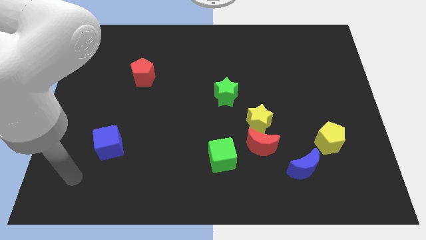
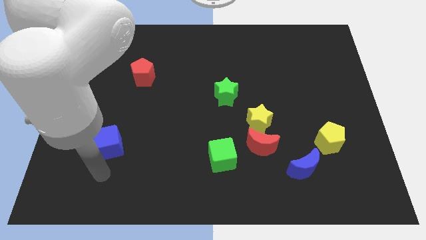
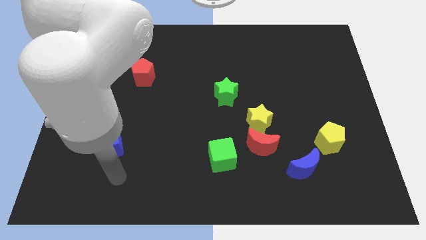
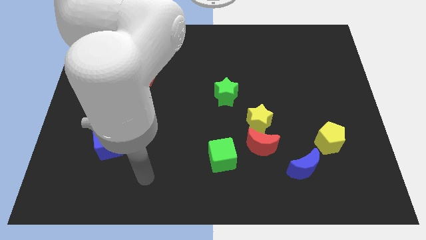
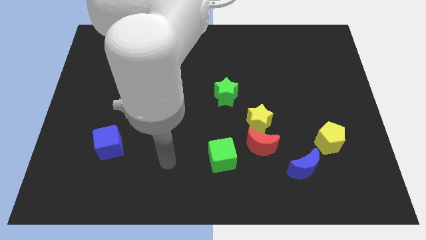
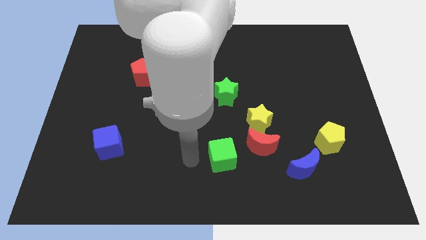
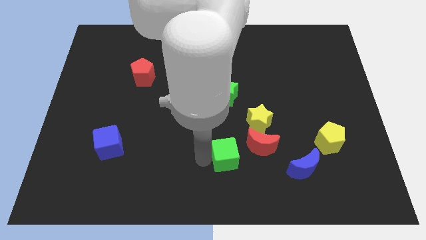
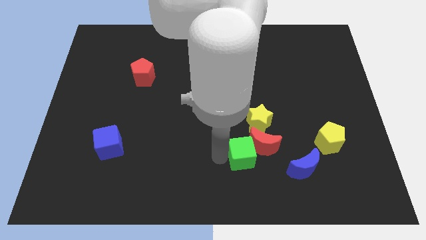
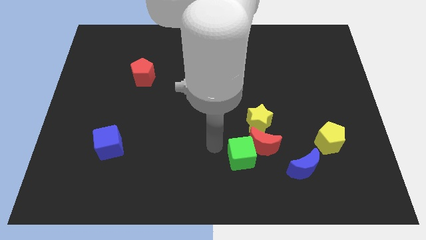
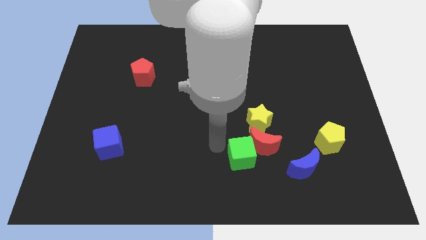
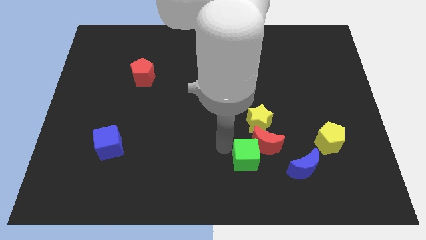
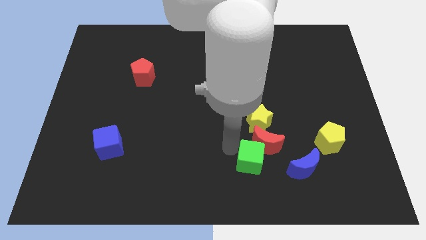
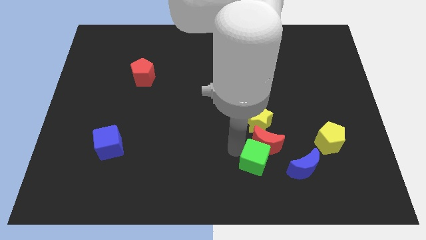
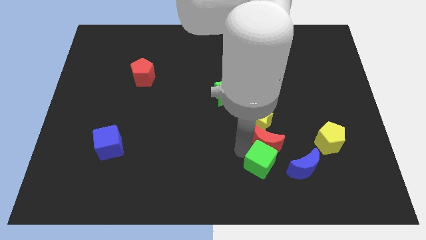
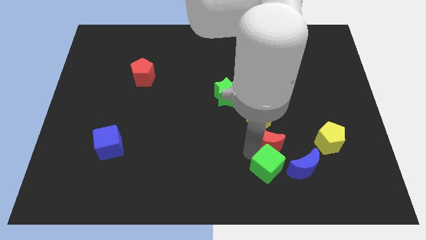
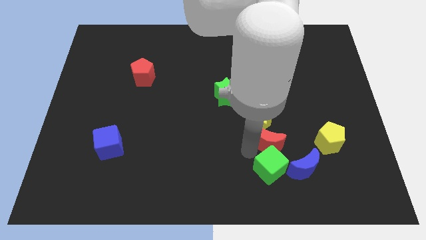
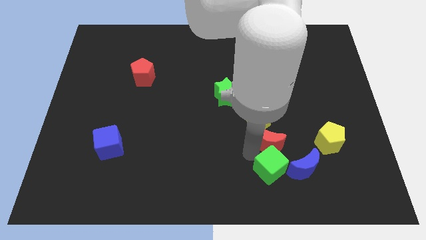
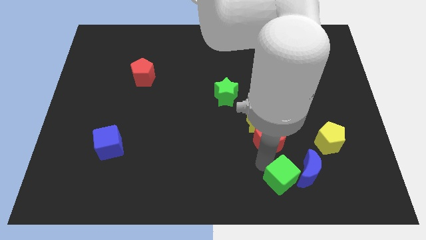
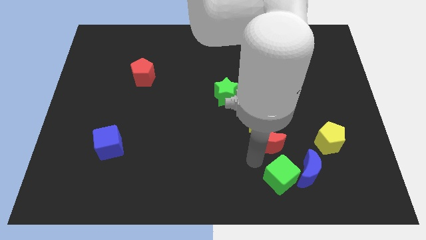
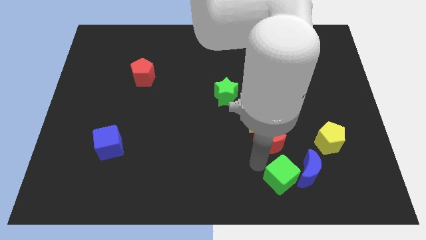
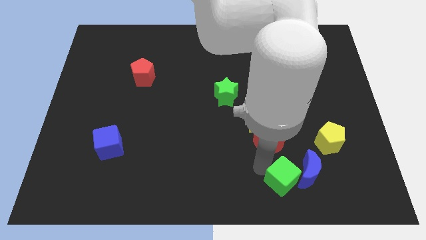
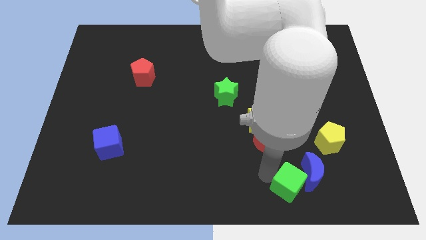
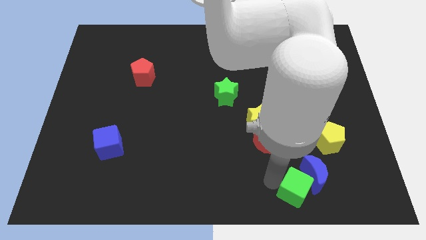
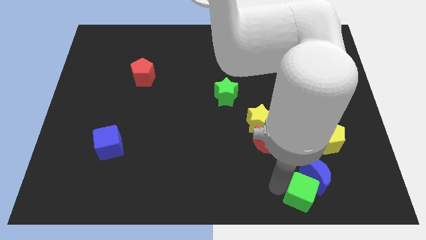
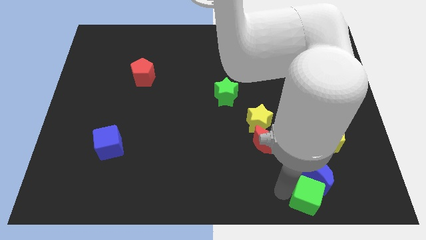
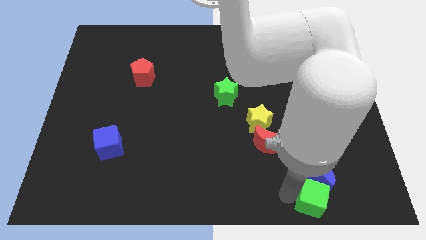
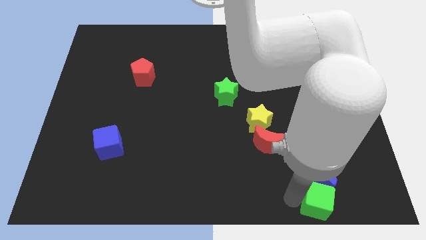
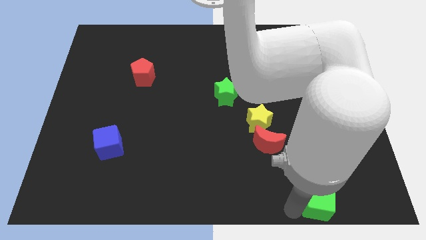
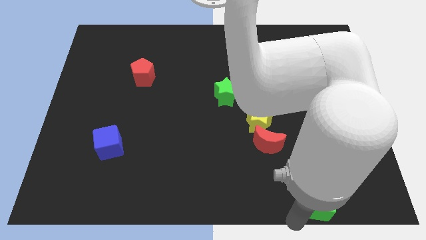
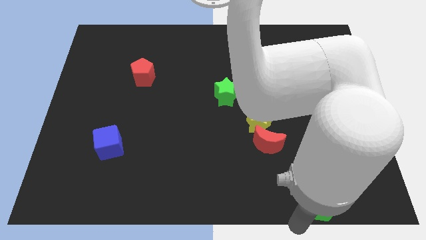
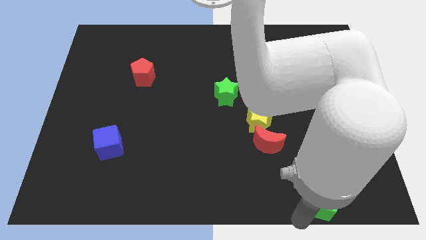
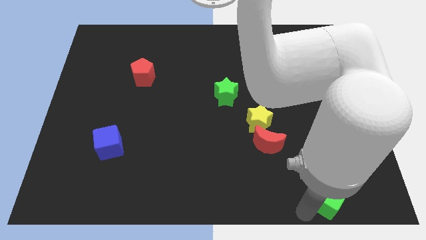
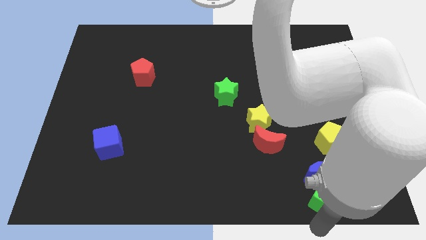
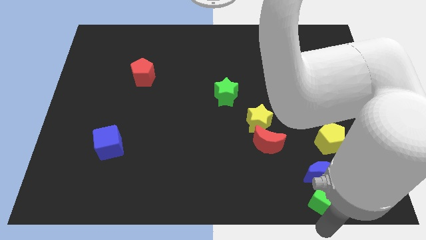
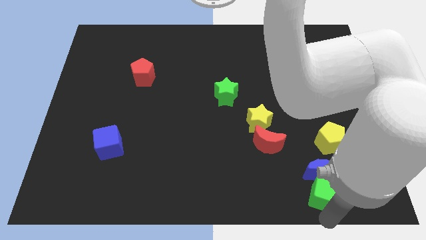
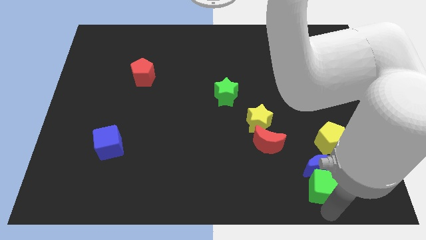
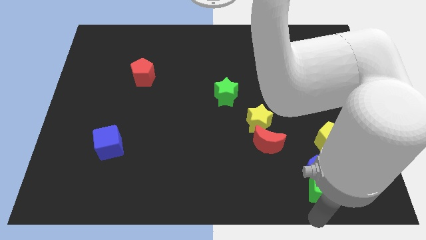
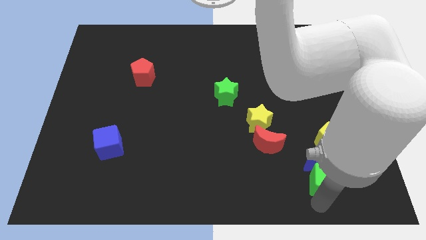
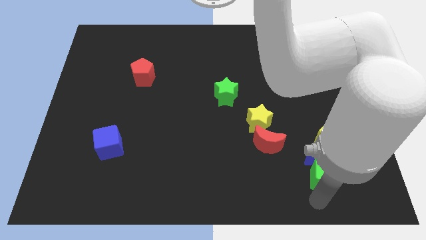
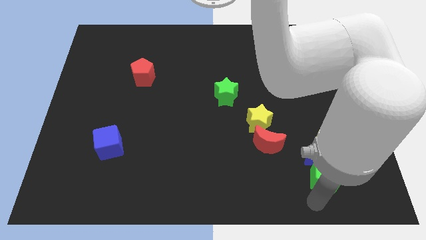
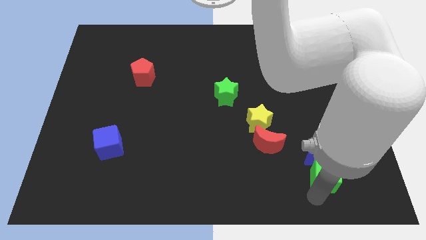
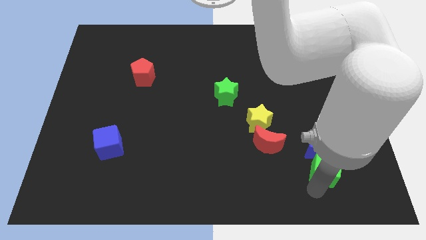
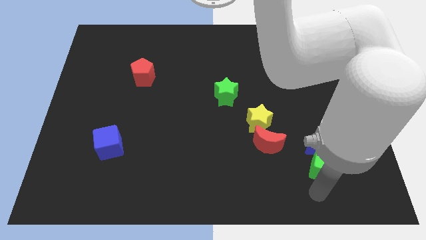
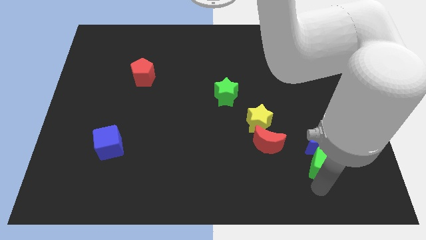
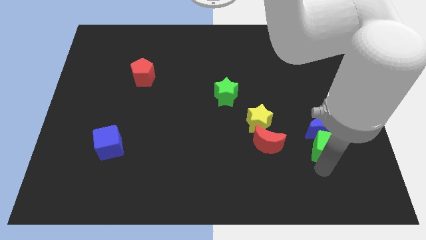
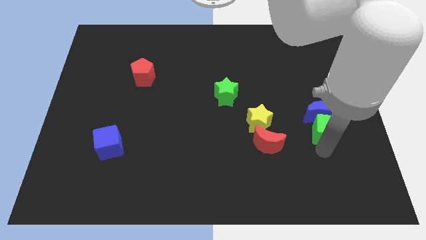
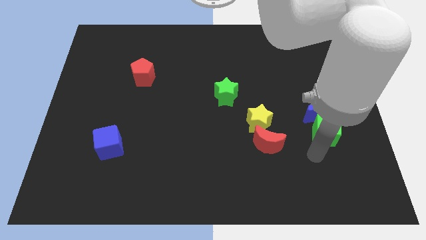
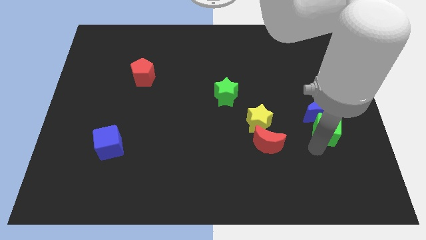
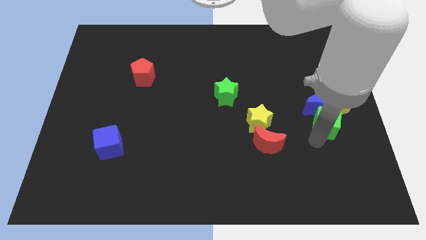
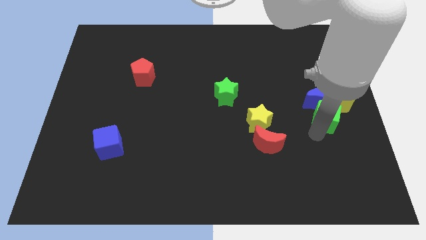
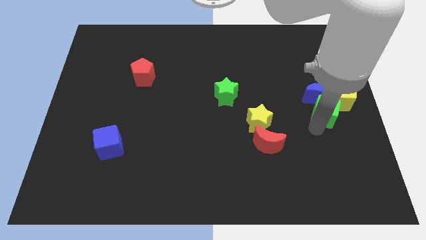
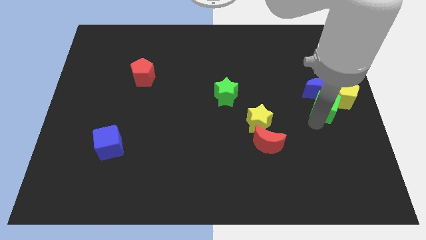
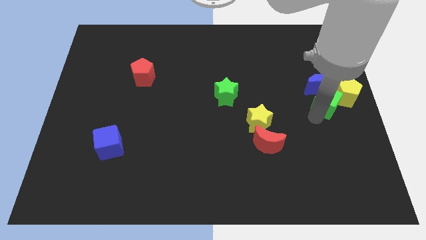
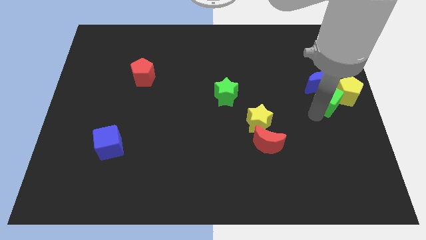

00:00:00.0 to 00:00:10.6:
push the green cube towards the yellow pentagon

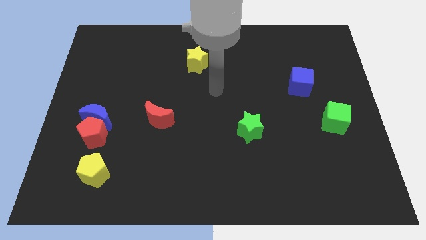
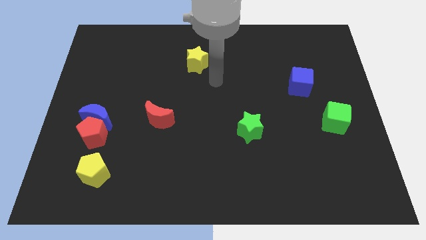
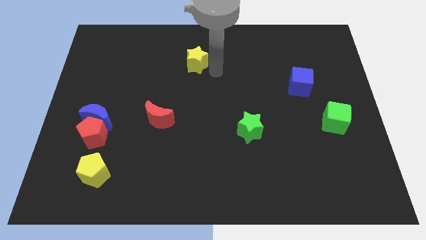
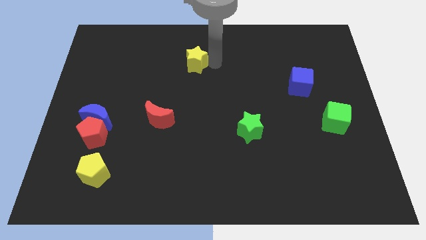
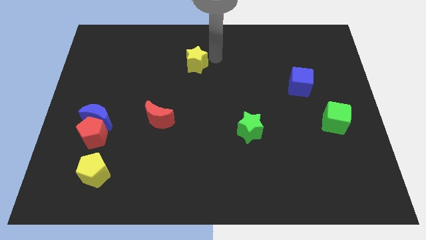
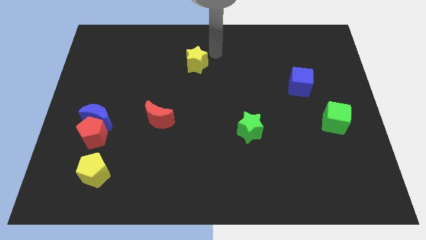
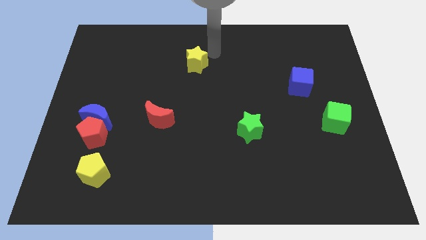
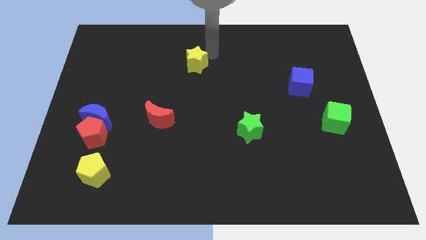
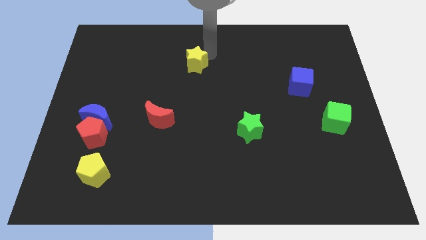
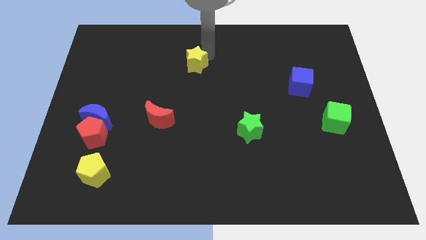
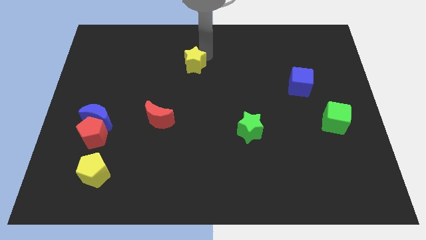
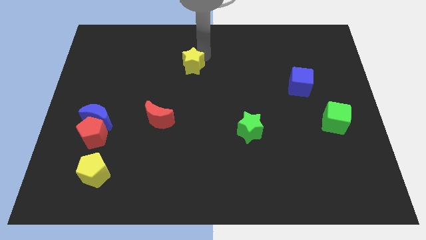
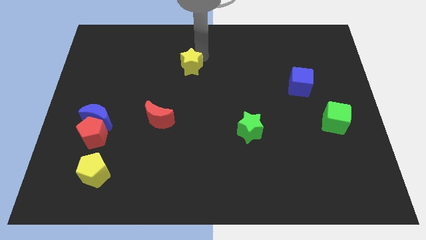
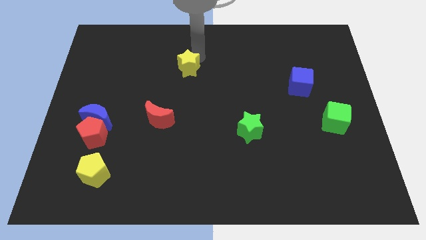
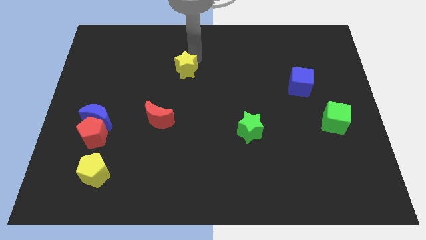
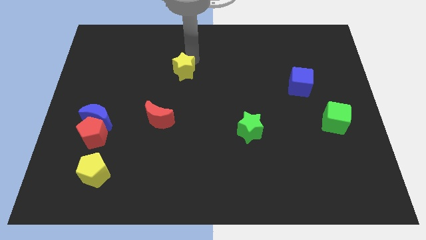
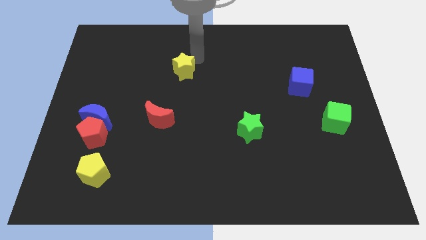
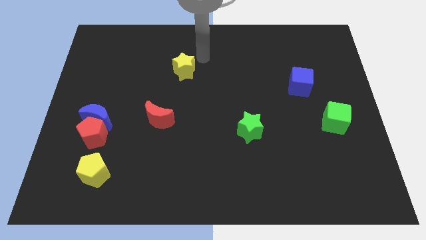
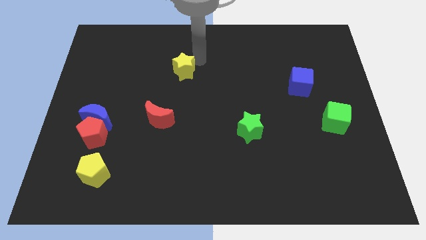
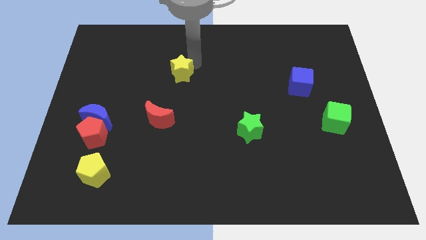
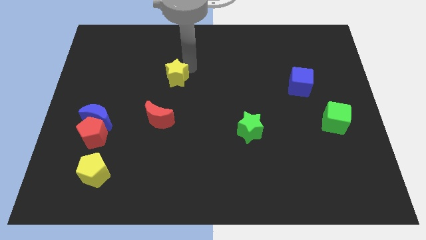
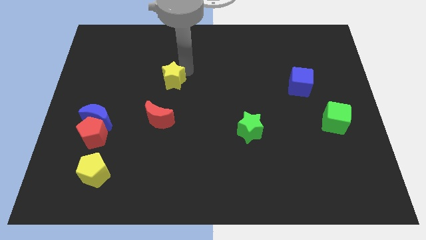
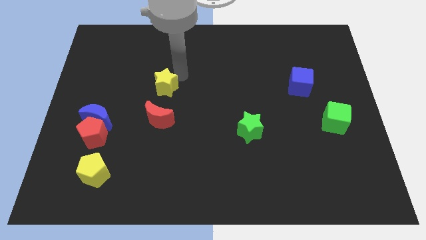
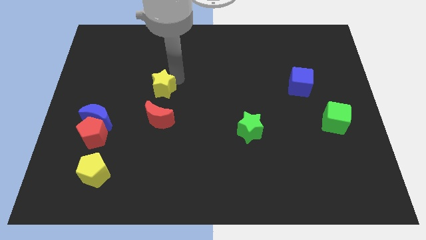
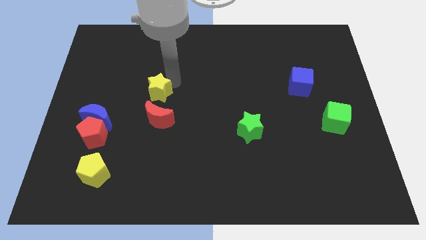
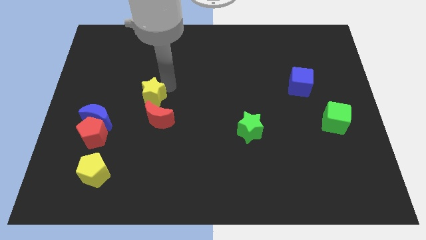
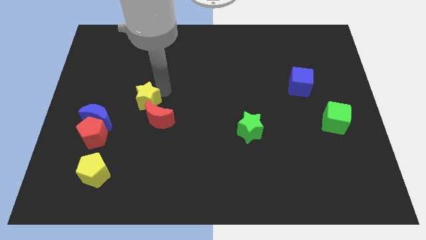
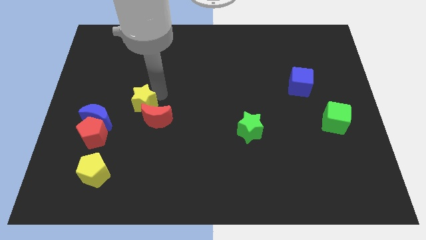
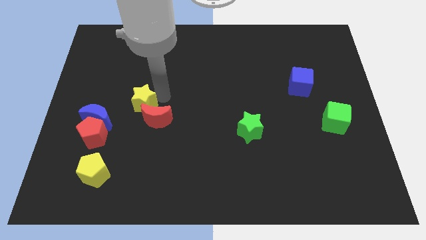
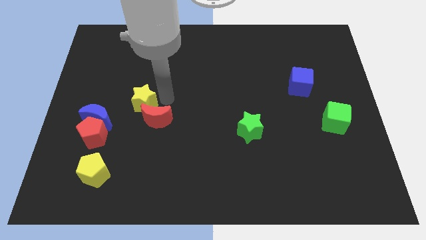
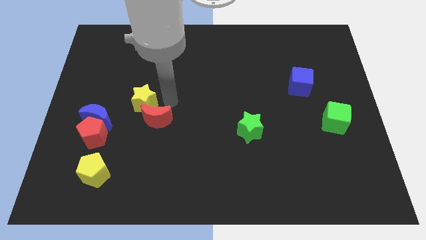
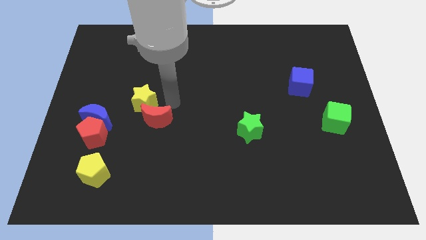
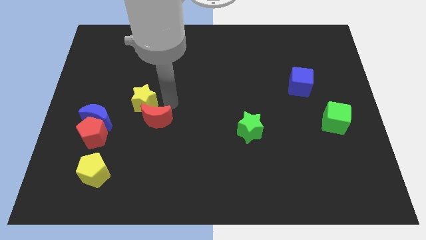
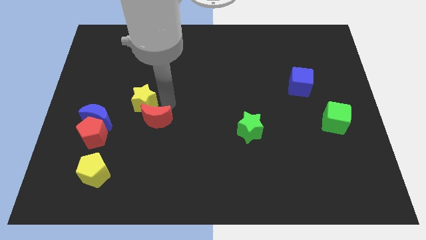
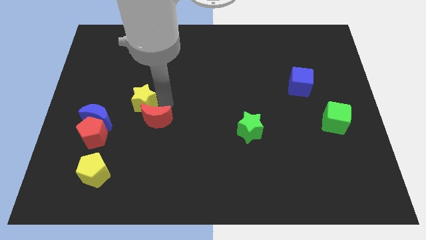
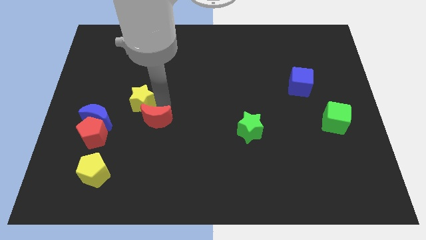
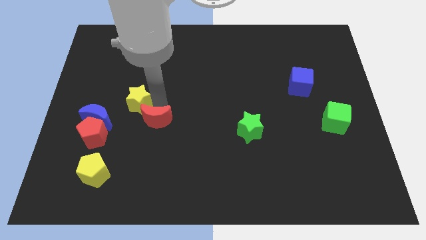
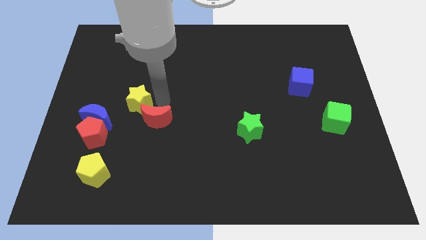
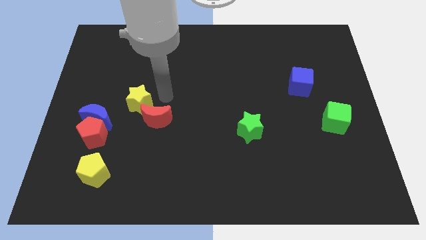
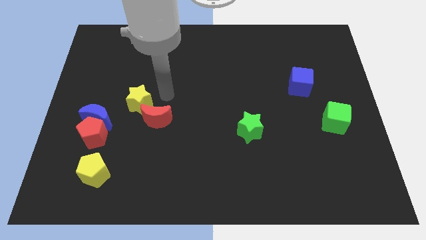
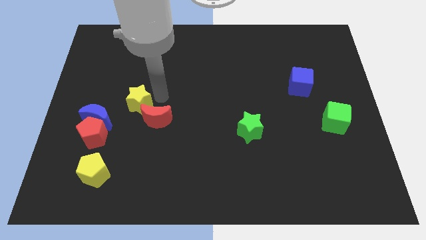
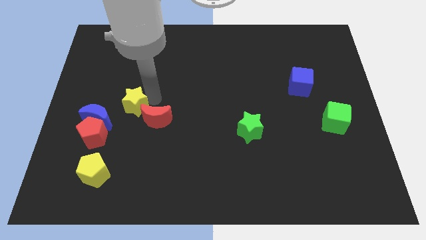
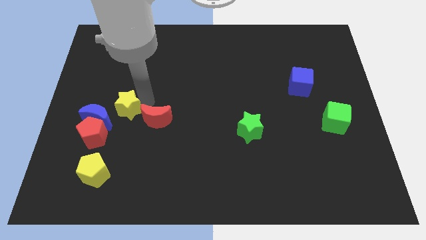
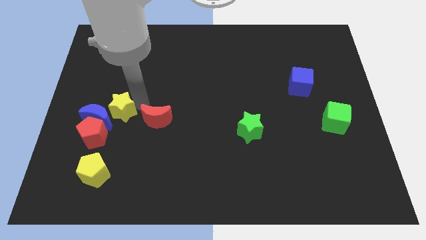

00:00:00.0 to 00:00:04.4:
push the yellow star close to the blue moon
